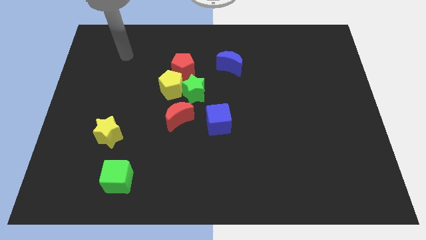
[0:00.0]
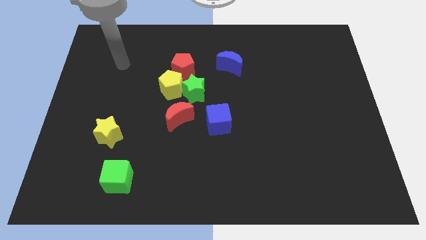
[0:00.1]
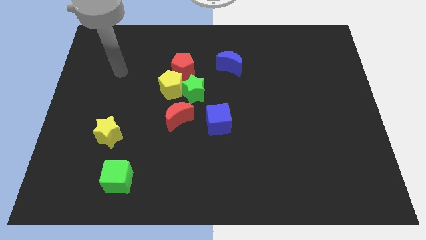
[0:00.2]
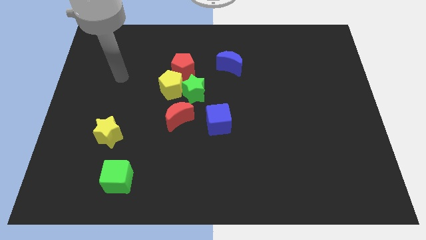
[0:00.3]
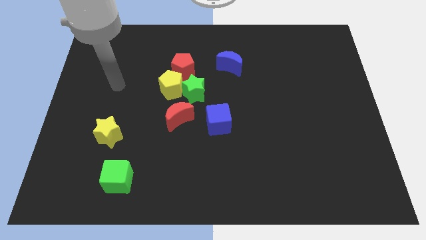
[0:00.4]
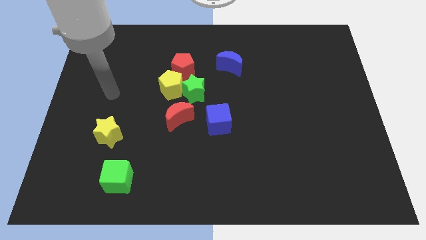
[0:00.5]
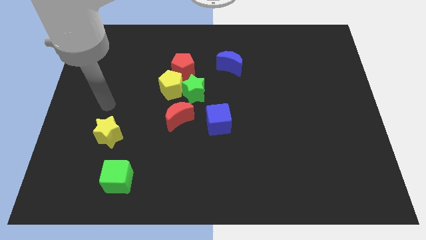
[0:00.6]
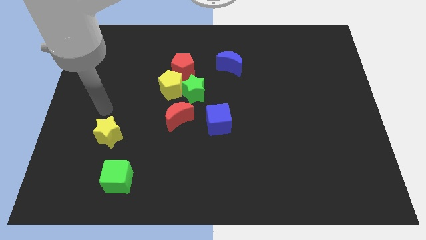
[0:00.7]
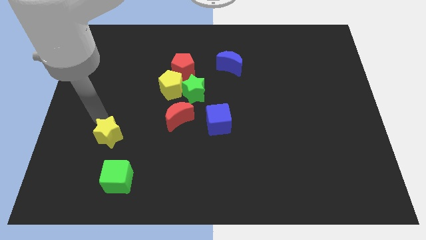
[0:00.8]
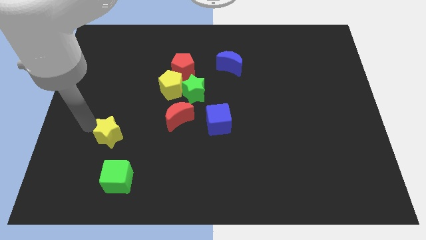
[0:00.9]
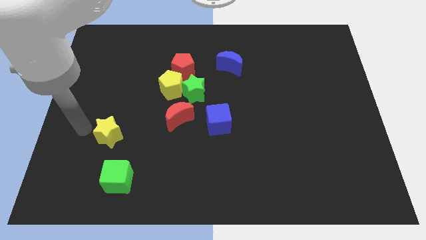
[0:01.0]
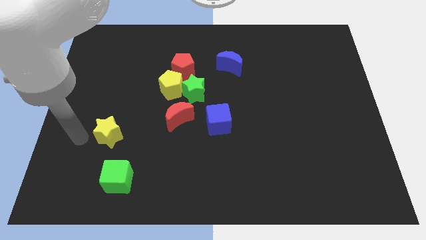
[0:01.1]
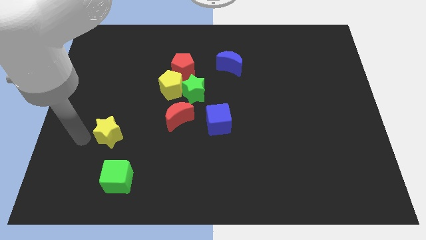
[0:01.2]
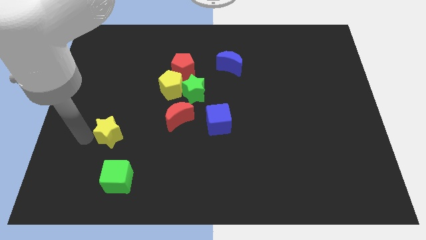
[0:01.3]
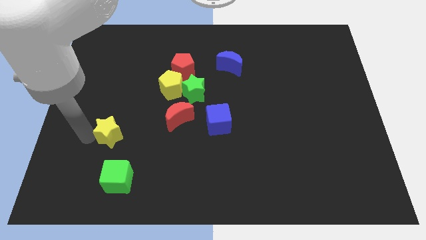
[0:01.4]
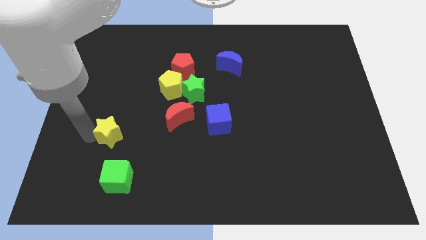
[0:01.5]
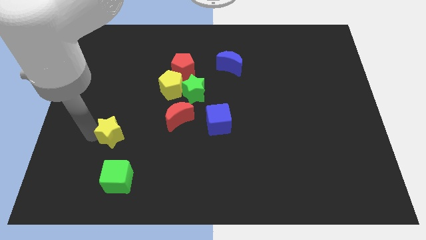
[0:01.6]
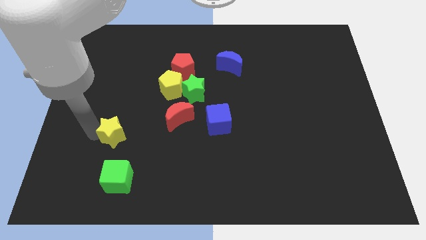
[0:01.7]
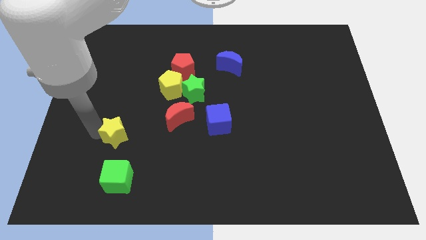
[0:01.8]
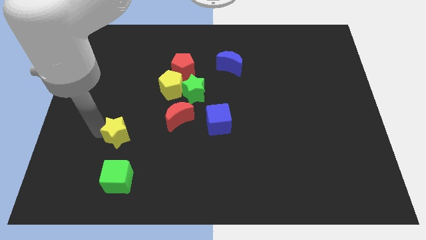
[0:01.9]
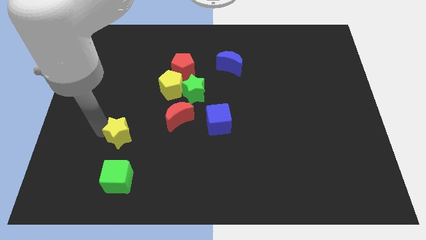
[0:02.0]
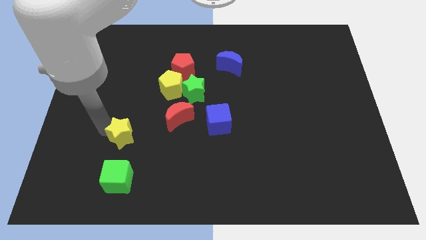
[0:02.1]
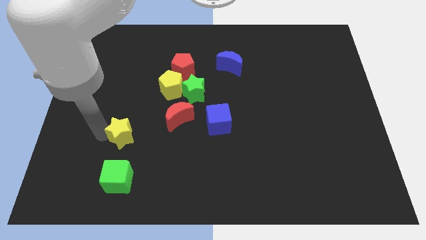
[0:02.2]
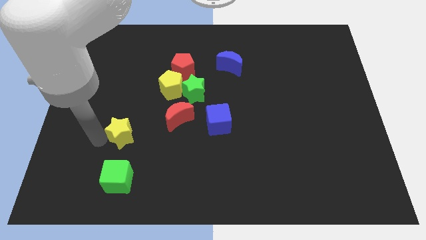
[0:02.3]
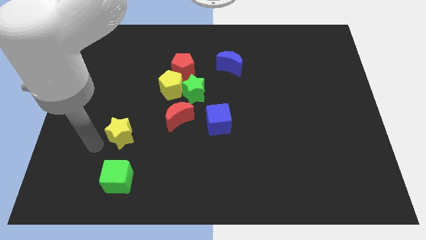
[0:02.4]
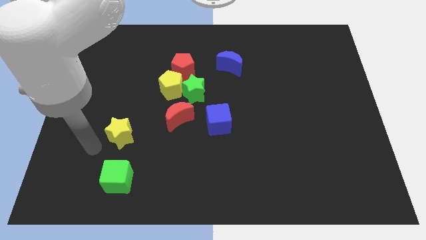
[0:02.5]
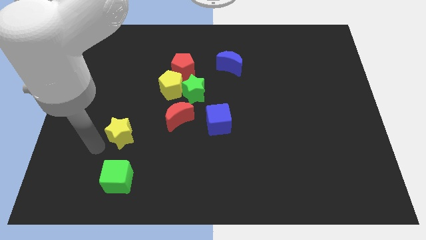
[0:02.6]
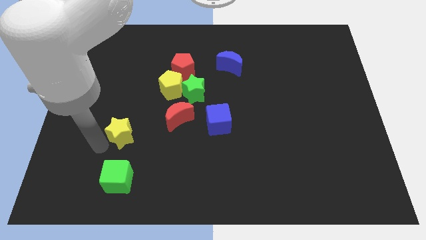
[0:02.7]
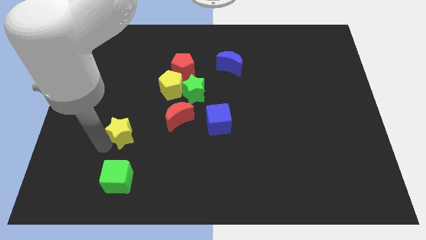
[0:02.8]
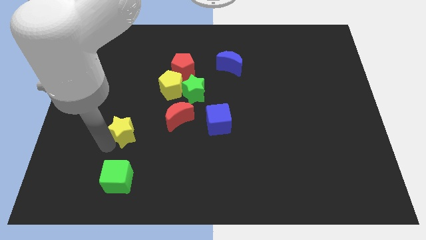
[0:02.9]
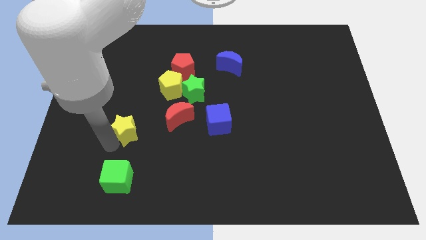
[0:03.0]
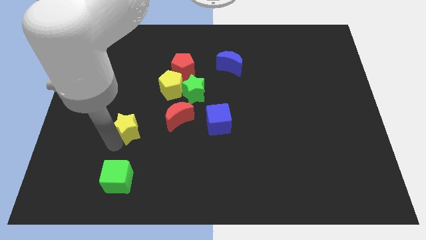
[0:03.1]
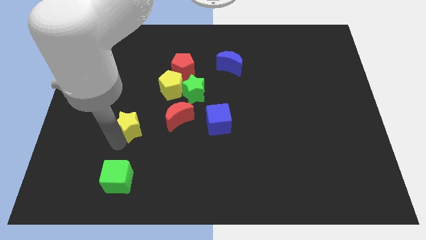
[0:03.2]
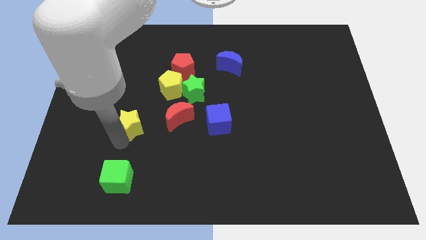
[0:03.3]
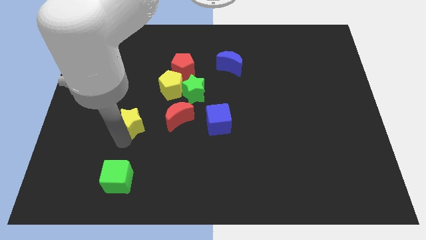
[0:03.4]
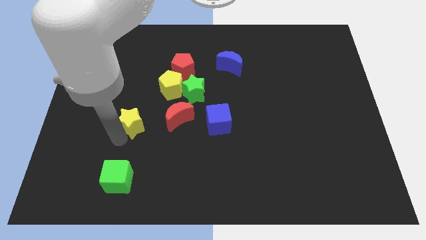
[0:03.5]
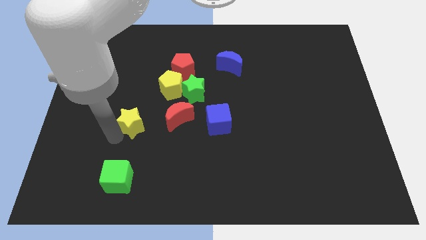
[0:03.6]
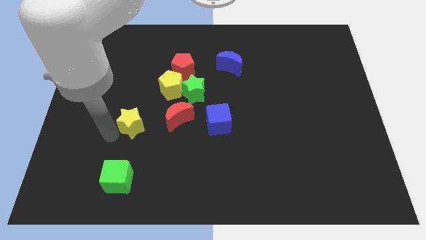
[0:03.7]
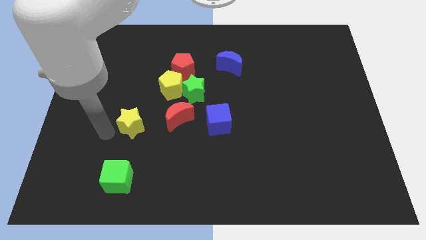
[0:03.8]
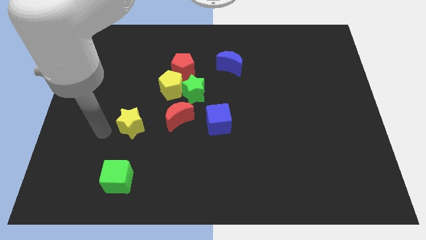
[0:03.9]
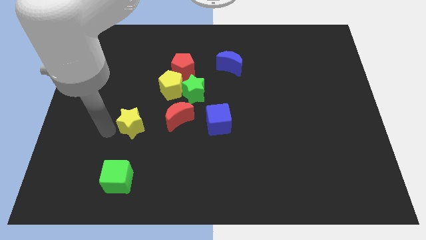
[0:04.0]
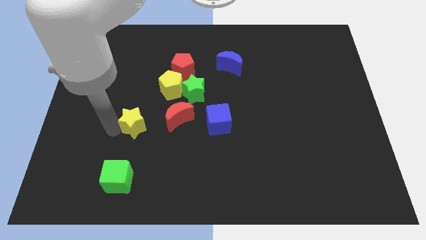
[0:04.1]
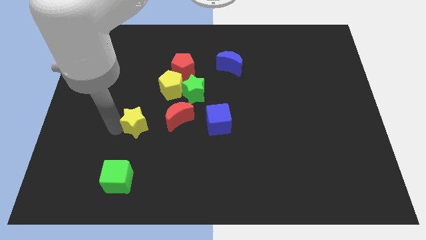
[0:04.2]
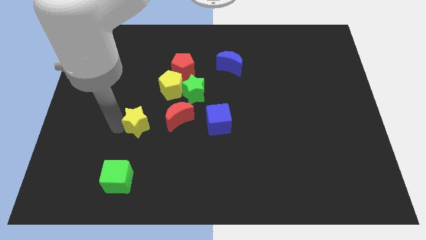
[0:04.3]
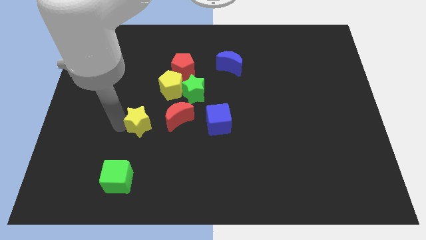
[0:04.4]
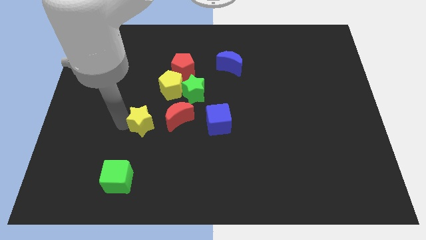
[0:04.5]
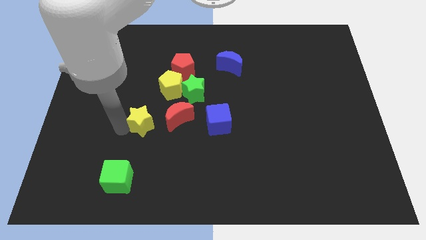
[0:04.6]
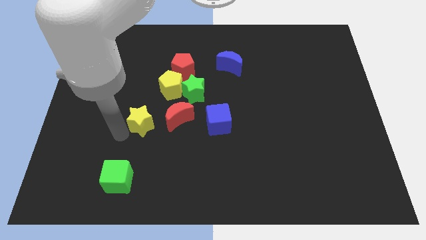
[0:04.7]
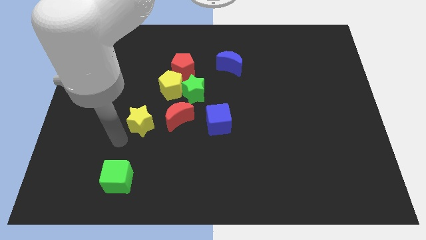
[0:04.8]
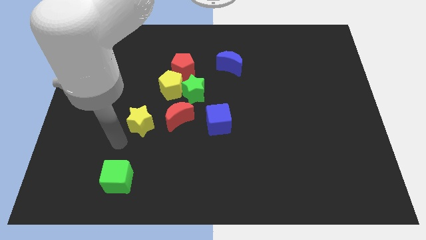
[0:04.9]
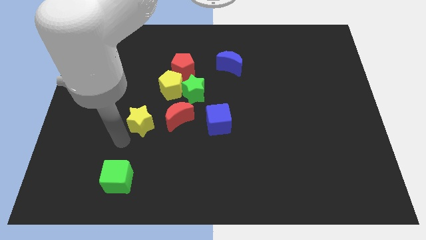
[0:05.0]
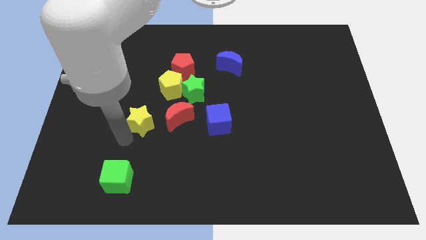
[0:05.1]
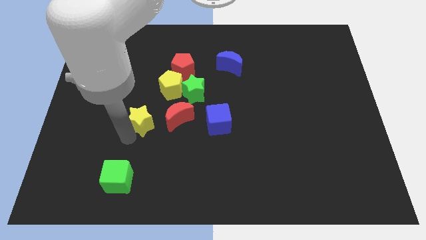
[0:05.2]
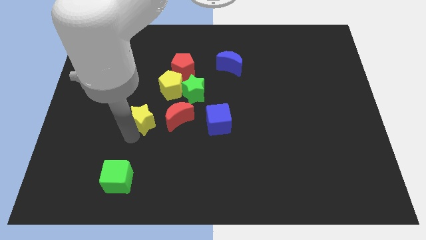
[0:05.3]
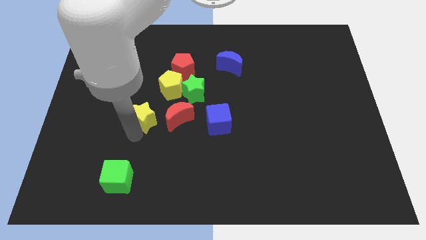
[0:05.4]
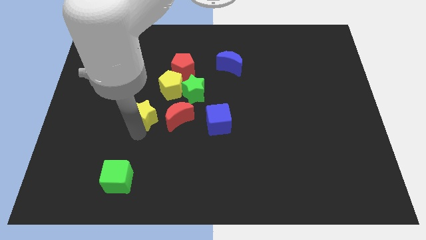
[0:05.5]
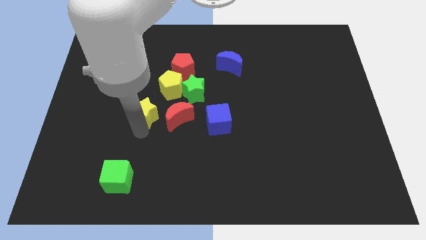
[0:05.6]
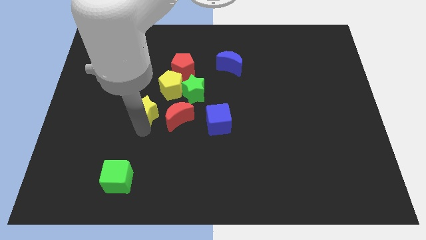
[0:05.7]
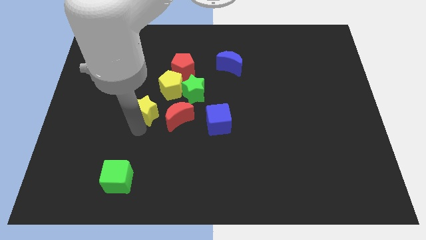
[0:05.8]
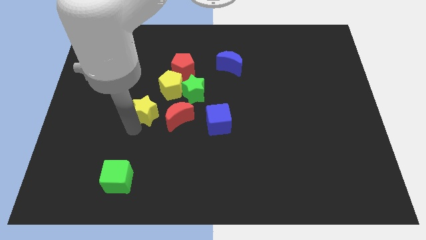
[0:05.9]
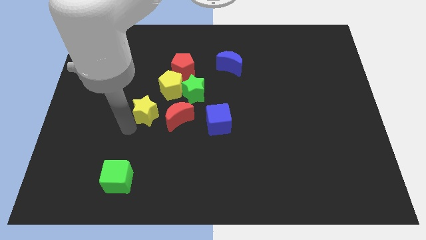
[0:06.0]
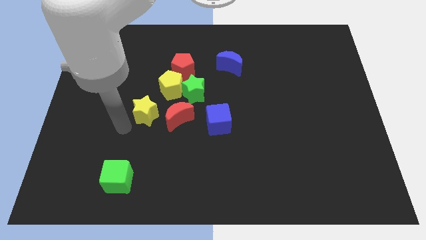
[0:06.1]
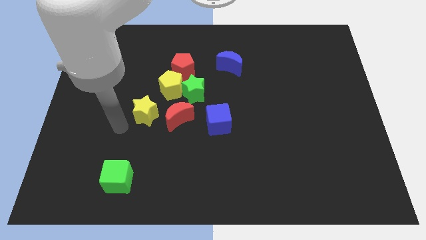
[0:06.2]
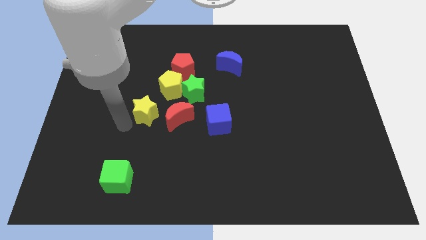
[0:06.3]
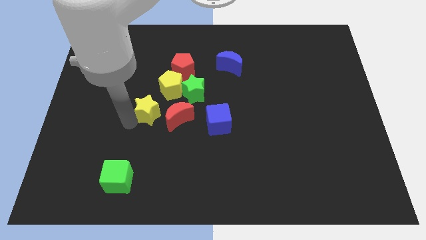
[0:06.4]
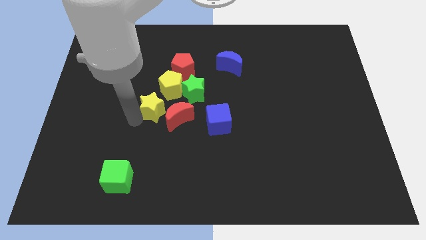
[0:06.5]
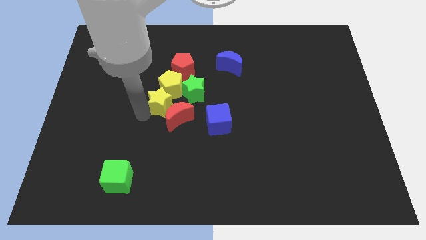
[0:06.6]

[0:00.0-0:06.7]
put the yellow star towards the yellow pentagon

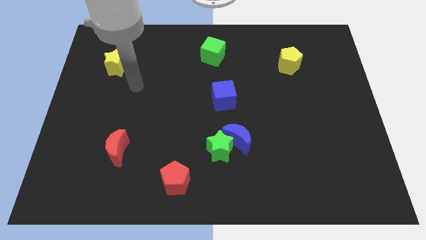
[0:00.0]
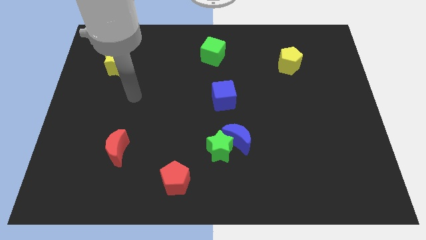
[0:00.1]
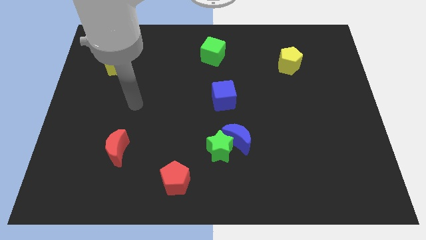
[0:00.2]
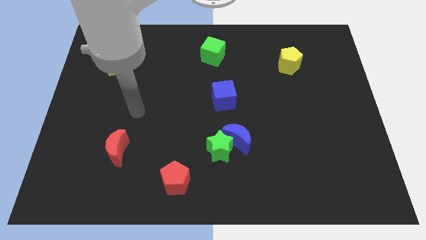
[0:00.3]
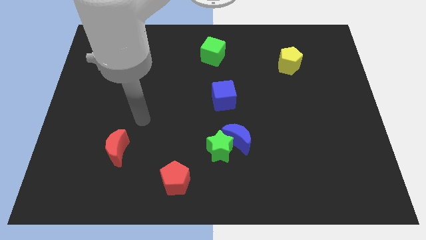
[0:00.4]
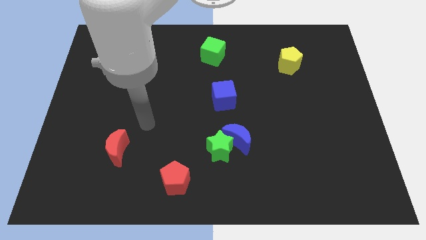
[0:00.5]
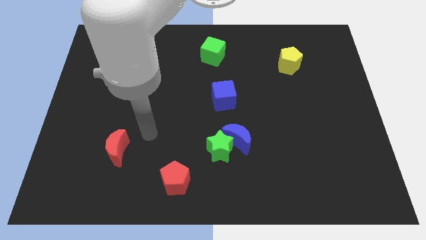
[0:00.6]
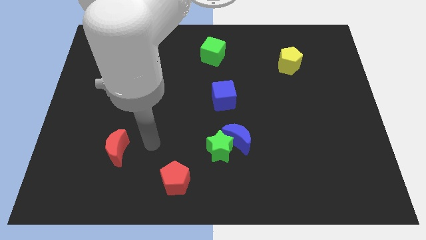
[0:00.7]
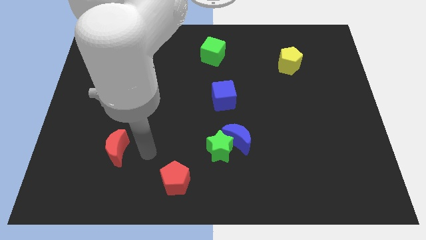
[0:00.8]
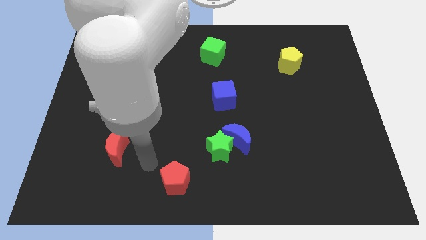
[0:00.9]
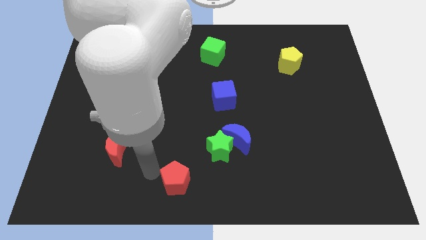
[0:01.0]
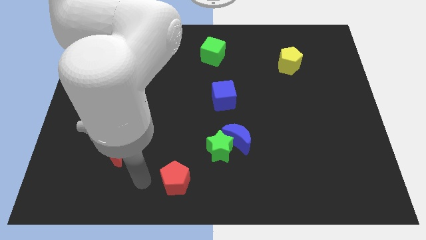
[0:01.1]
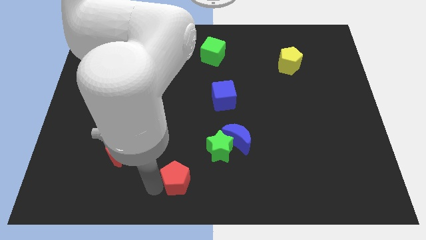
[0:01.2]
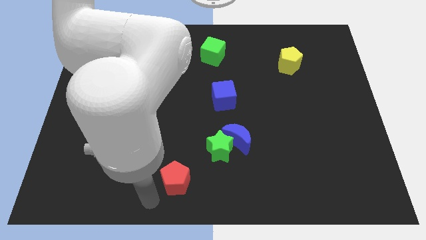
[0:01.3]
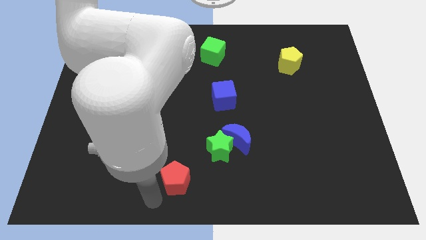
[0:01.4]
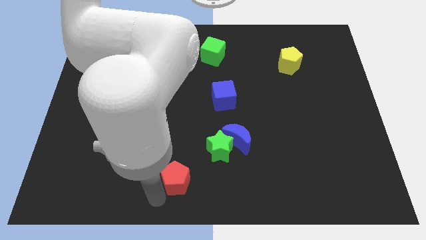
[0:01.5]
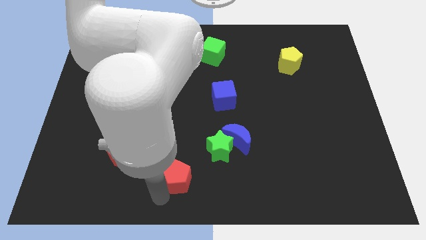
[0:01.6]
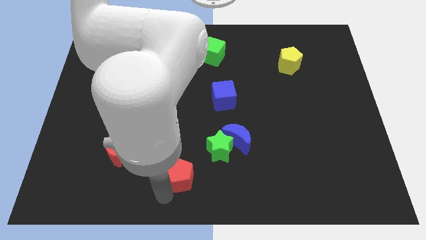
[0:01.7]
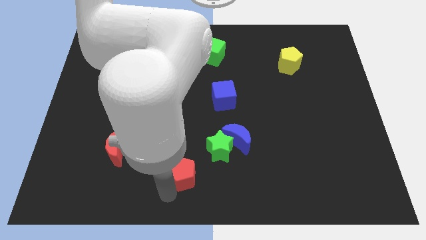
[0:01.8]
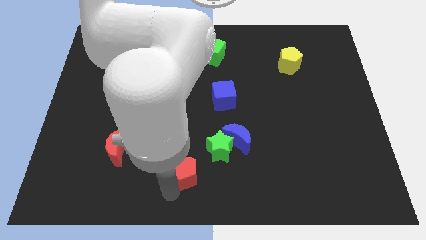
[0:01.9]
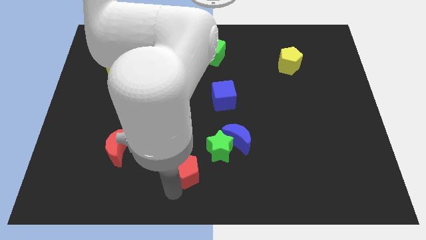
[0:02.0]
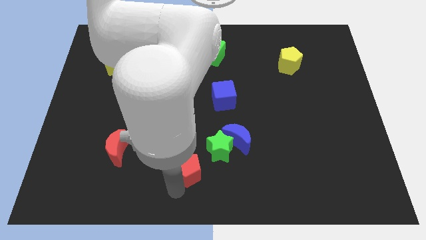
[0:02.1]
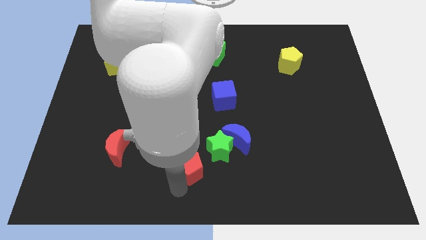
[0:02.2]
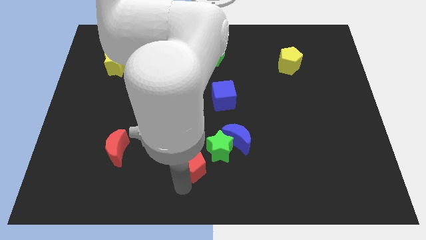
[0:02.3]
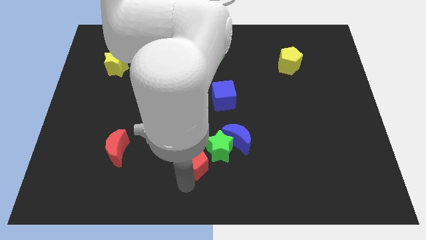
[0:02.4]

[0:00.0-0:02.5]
put the red pentagon to the green star
